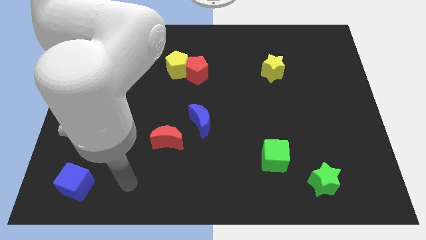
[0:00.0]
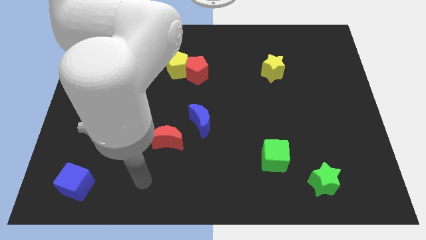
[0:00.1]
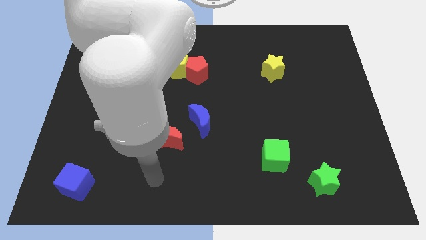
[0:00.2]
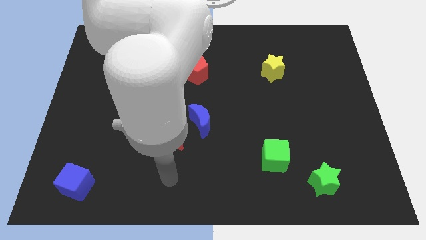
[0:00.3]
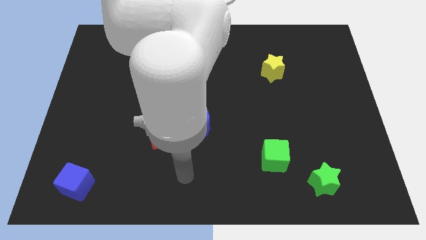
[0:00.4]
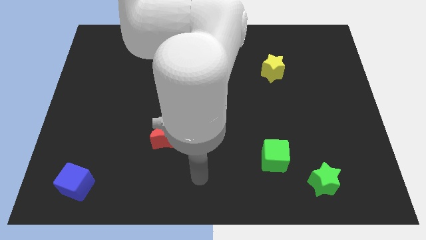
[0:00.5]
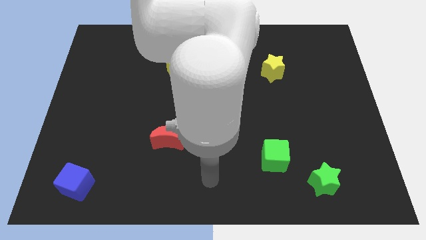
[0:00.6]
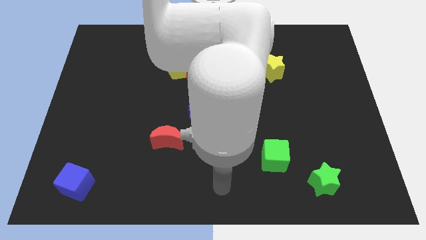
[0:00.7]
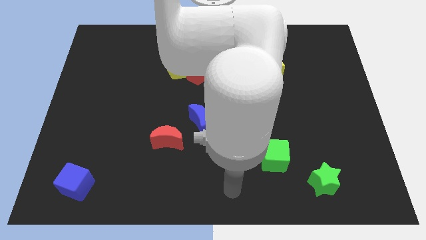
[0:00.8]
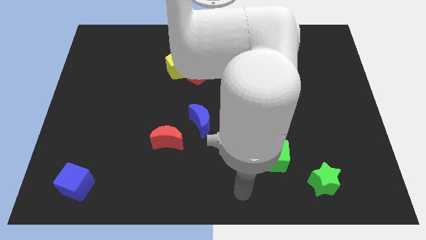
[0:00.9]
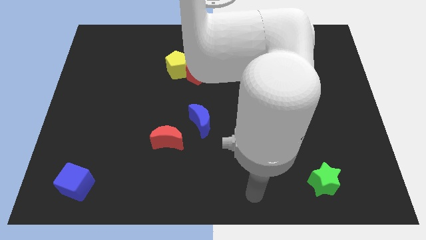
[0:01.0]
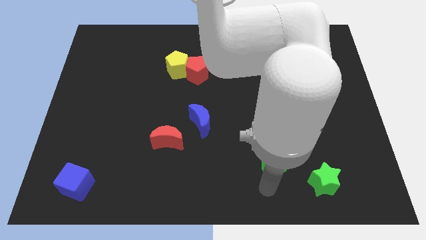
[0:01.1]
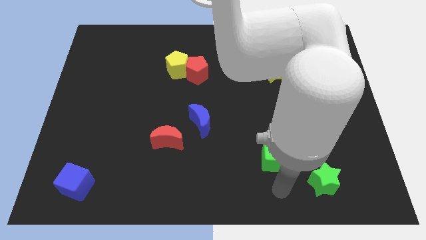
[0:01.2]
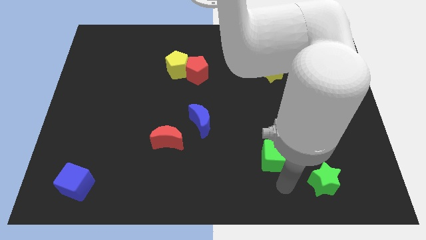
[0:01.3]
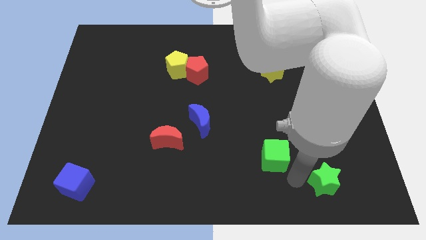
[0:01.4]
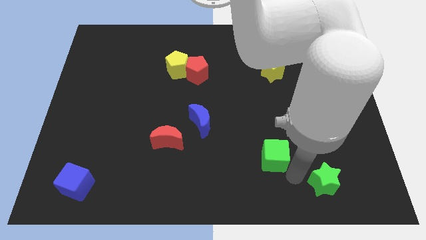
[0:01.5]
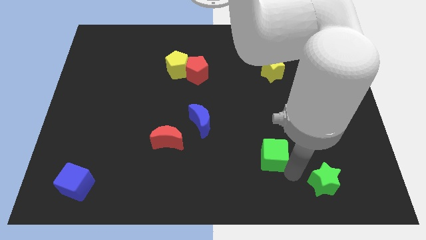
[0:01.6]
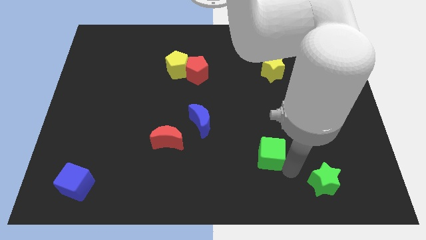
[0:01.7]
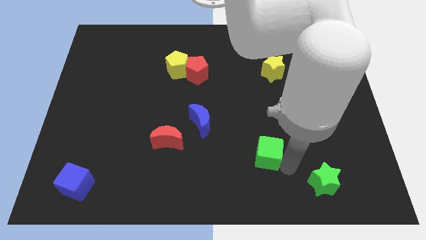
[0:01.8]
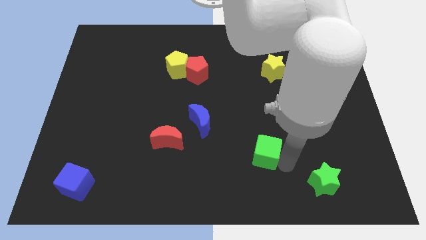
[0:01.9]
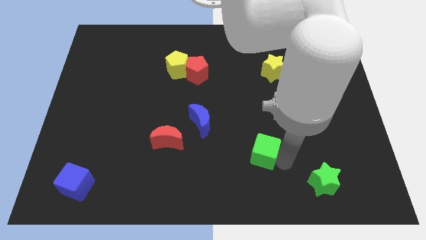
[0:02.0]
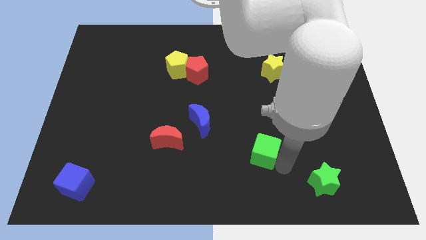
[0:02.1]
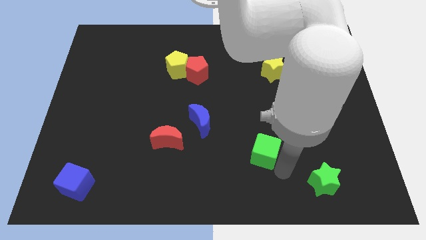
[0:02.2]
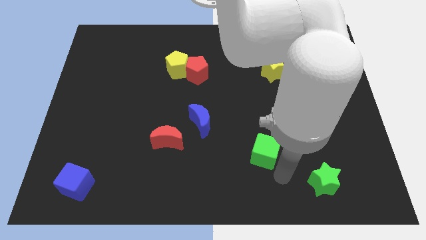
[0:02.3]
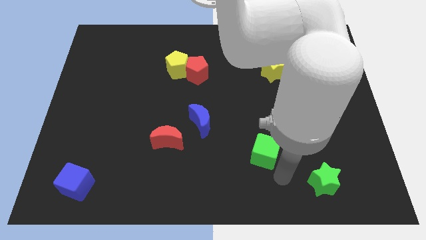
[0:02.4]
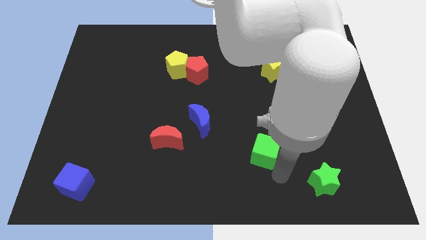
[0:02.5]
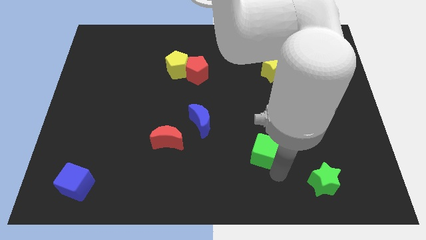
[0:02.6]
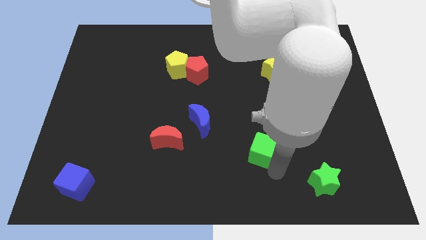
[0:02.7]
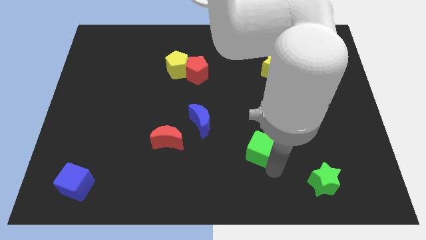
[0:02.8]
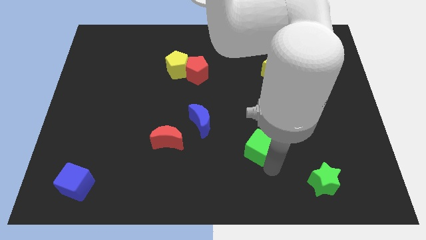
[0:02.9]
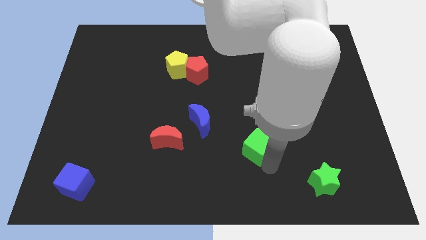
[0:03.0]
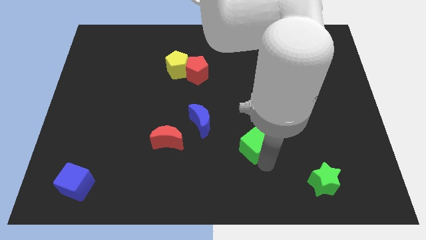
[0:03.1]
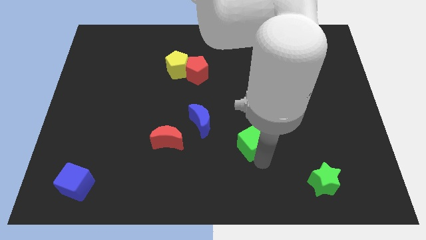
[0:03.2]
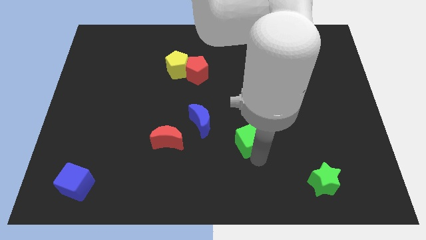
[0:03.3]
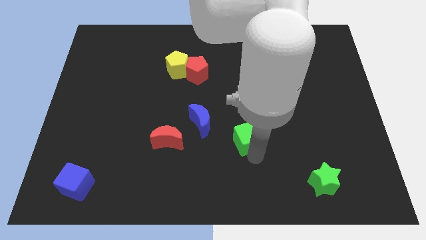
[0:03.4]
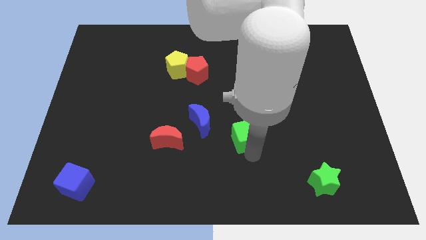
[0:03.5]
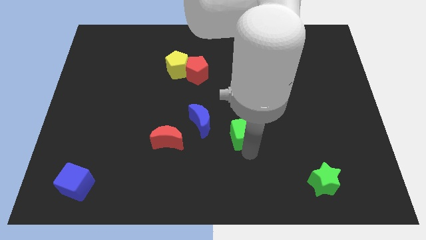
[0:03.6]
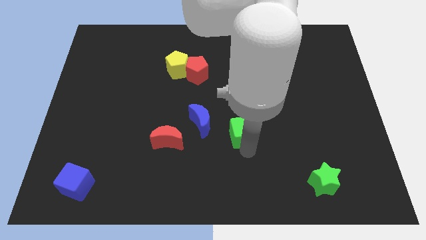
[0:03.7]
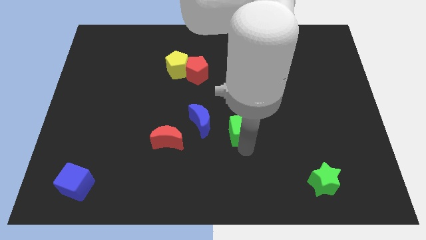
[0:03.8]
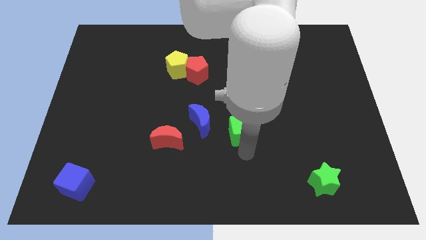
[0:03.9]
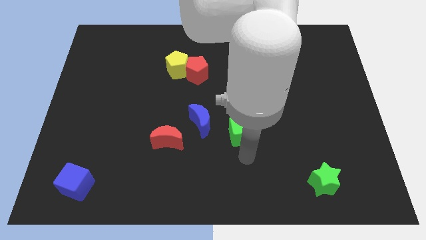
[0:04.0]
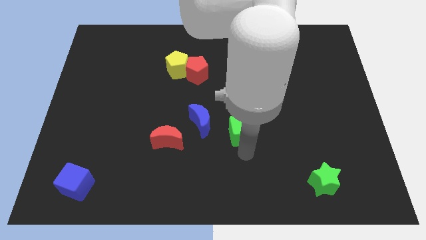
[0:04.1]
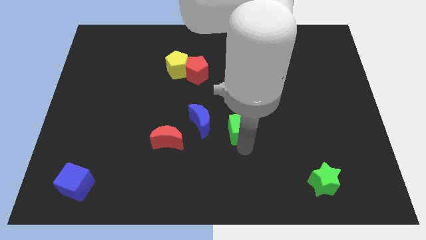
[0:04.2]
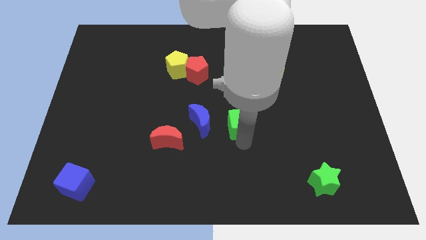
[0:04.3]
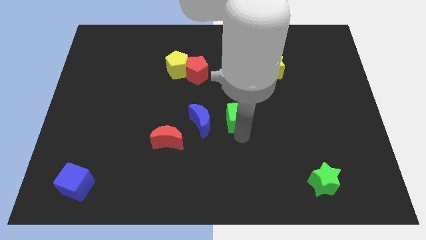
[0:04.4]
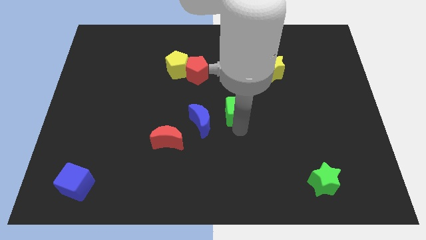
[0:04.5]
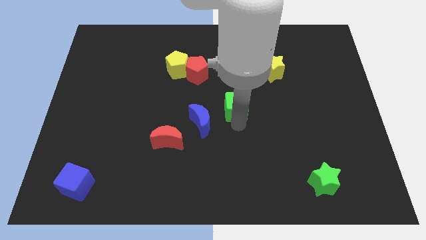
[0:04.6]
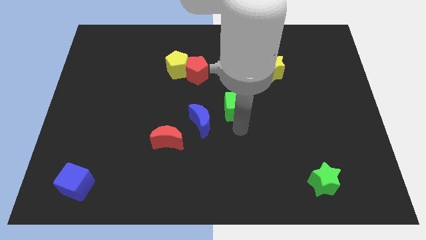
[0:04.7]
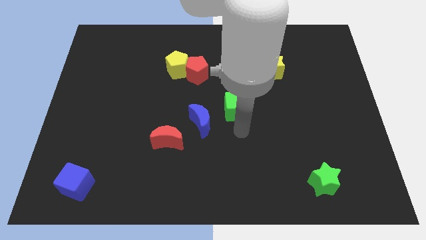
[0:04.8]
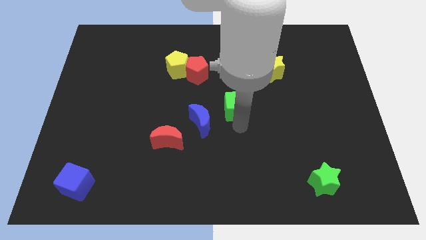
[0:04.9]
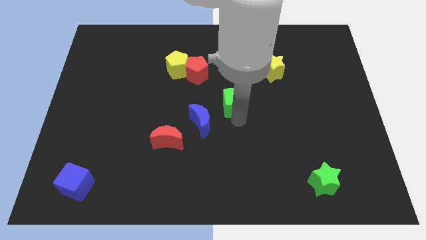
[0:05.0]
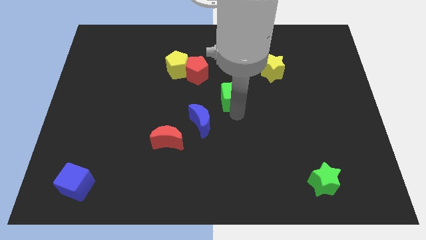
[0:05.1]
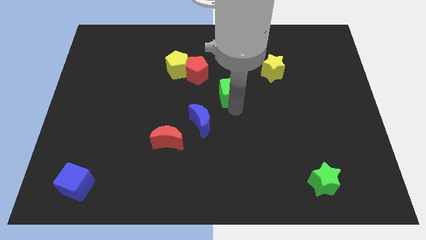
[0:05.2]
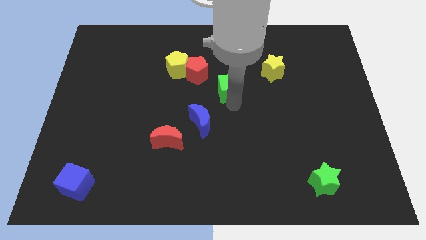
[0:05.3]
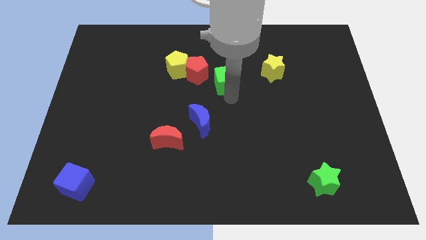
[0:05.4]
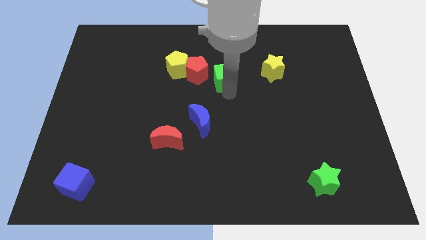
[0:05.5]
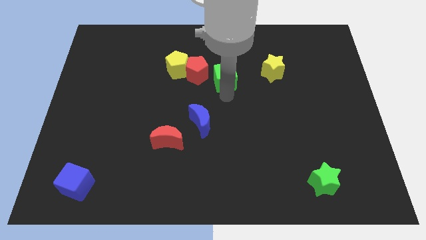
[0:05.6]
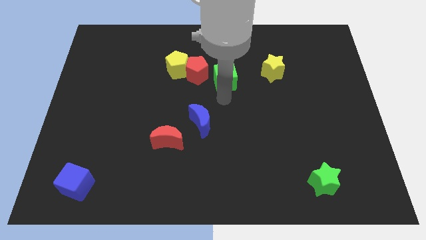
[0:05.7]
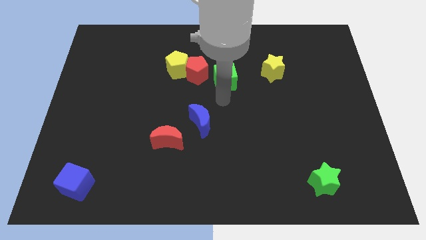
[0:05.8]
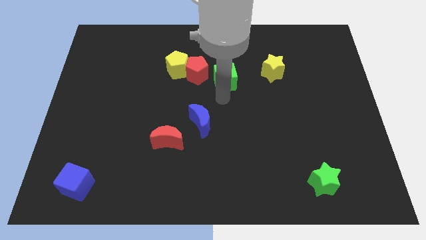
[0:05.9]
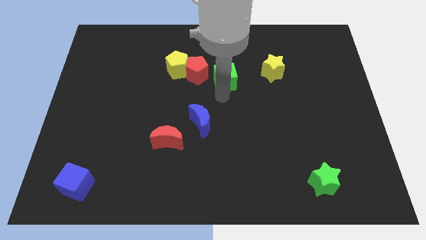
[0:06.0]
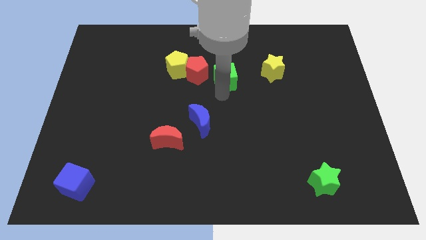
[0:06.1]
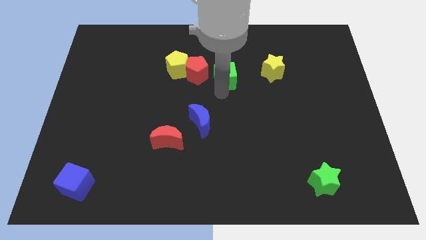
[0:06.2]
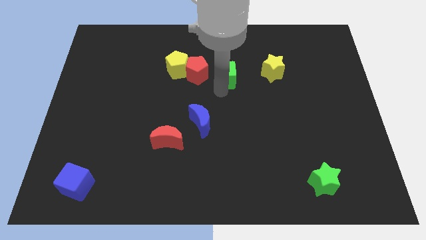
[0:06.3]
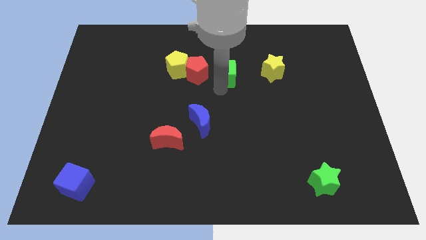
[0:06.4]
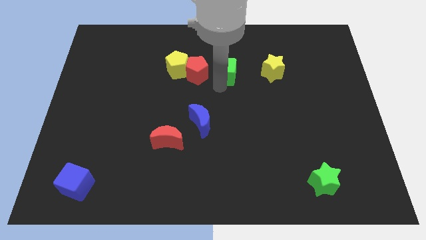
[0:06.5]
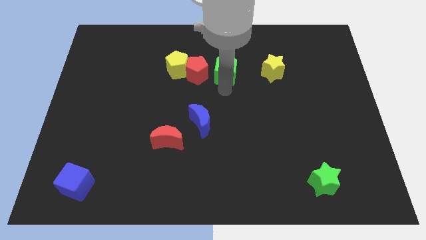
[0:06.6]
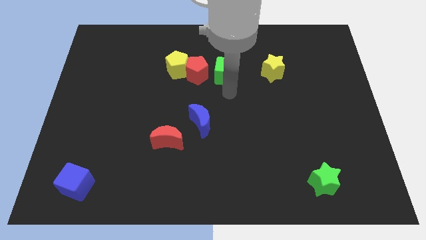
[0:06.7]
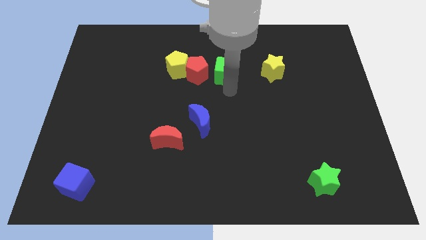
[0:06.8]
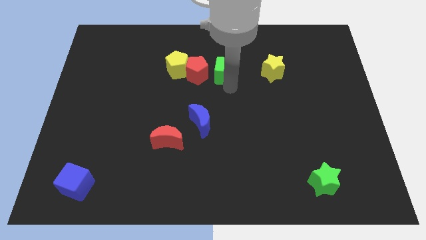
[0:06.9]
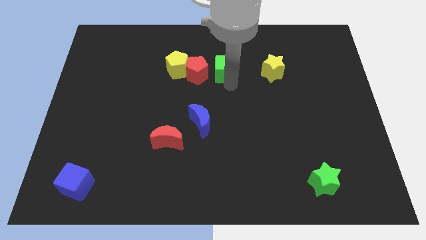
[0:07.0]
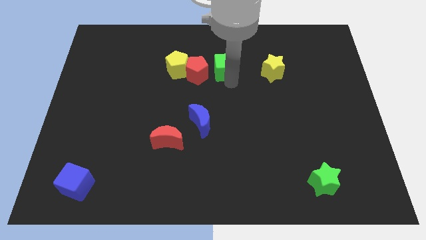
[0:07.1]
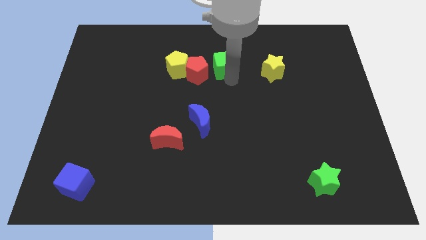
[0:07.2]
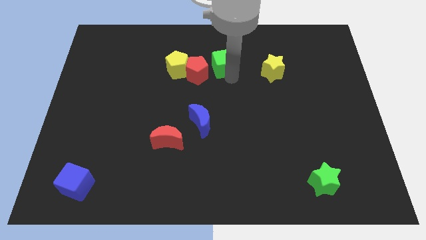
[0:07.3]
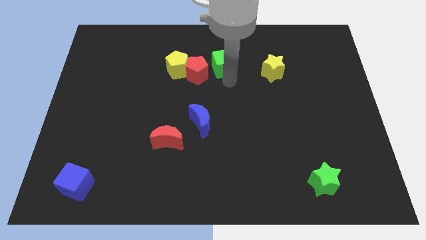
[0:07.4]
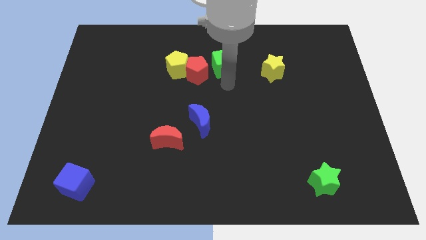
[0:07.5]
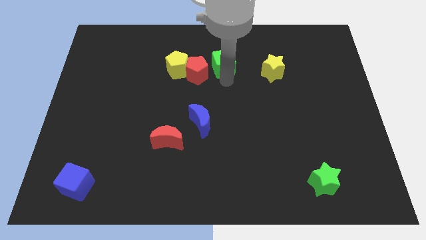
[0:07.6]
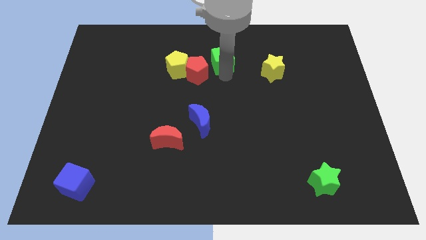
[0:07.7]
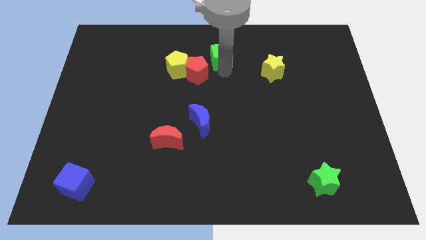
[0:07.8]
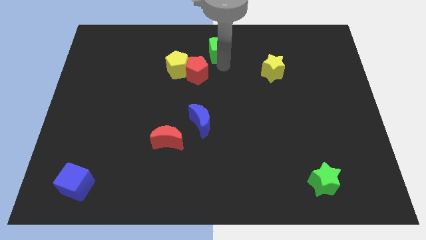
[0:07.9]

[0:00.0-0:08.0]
slide the green cube to the top
